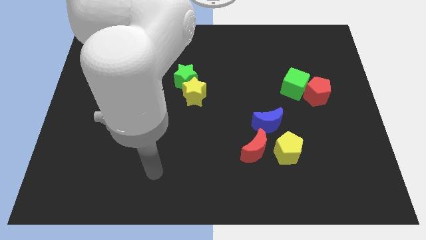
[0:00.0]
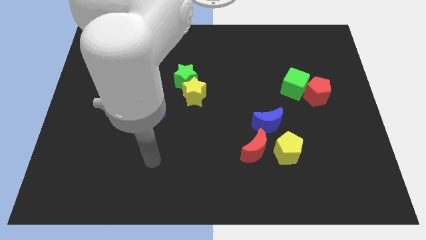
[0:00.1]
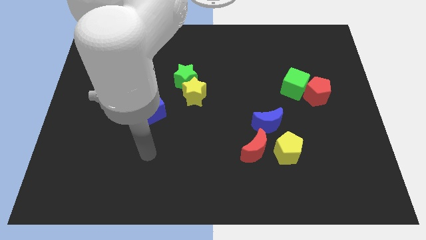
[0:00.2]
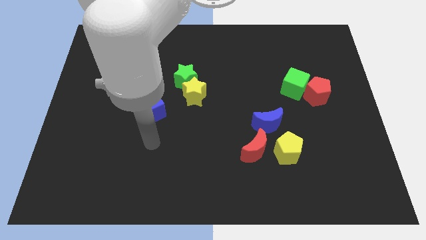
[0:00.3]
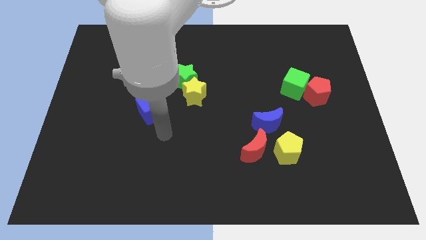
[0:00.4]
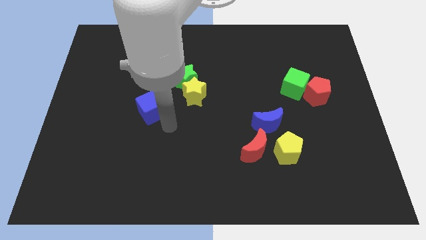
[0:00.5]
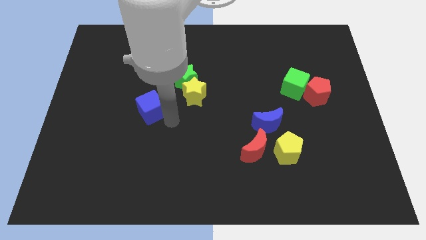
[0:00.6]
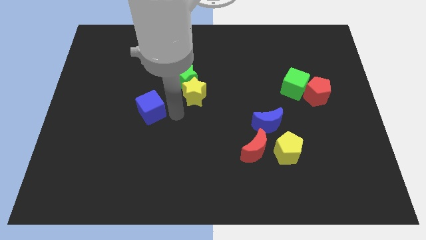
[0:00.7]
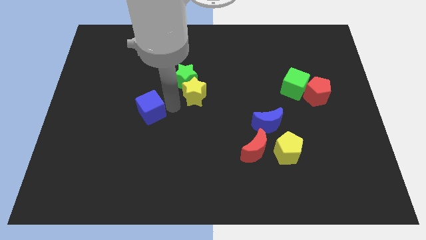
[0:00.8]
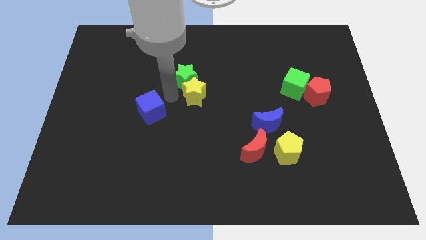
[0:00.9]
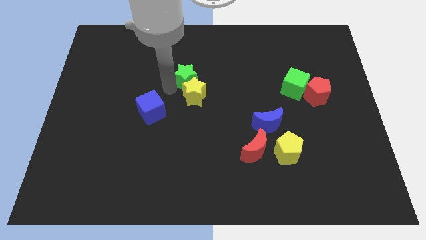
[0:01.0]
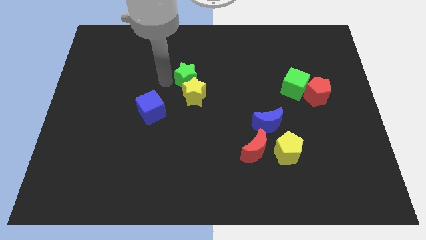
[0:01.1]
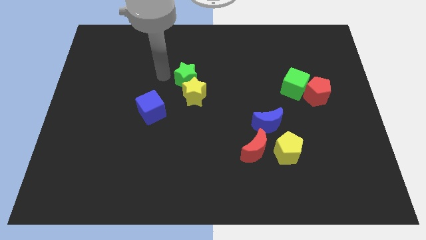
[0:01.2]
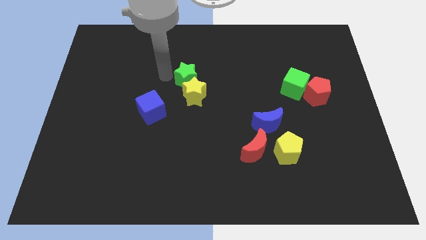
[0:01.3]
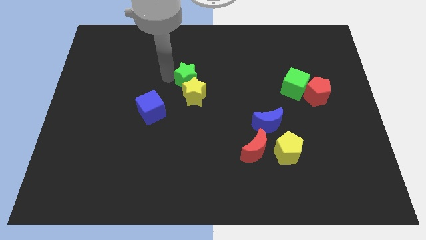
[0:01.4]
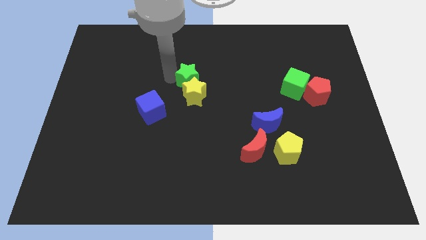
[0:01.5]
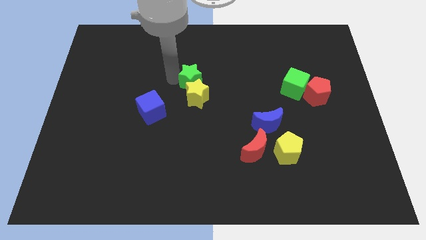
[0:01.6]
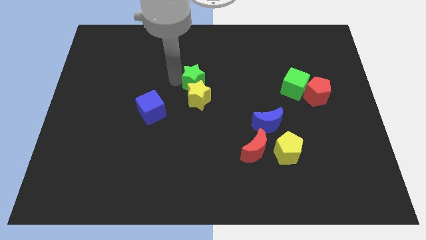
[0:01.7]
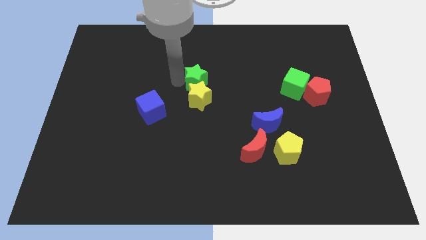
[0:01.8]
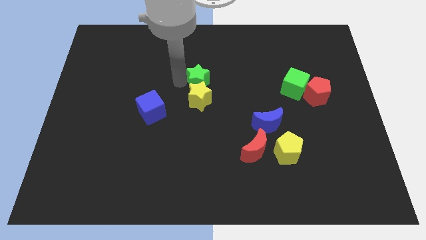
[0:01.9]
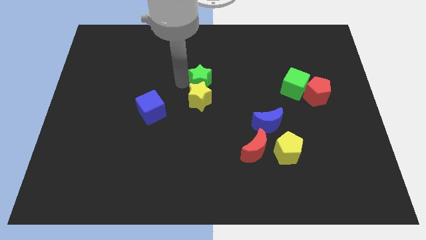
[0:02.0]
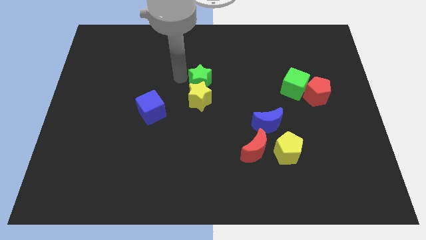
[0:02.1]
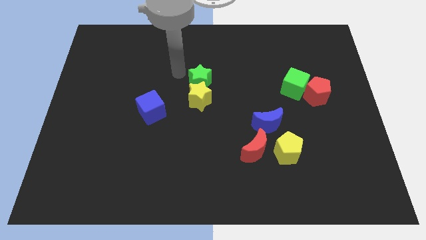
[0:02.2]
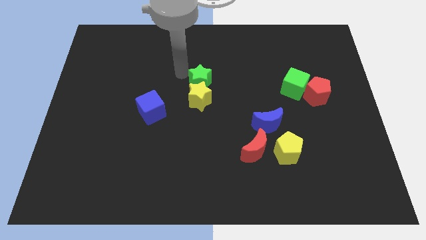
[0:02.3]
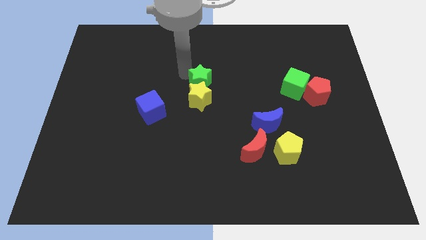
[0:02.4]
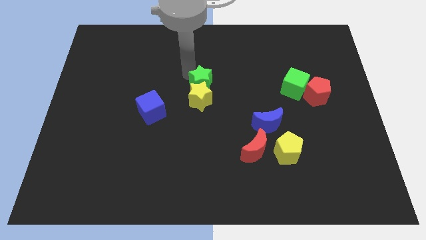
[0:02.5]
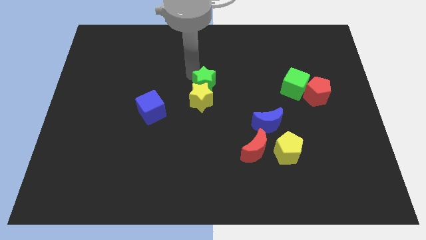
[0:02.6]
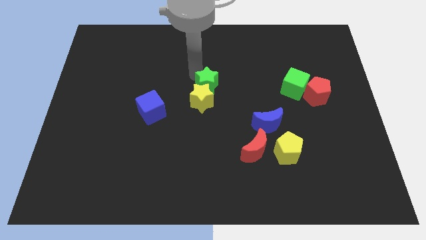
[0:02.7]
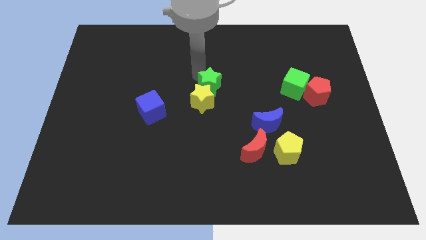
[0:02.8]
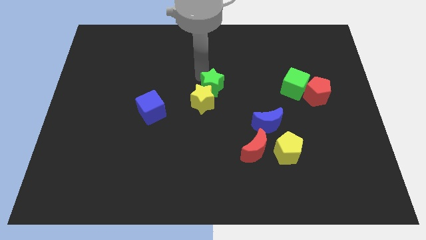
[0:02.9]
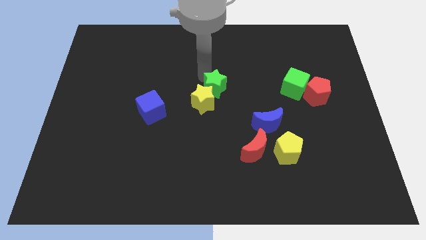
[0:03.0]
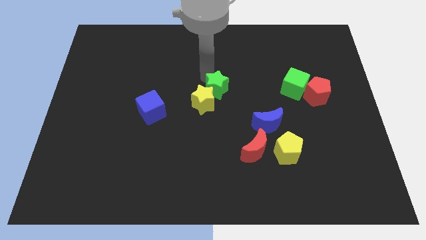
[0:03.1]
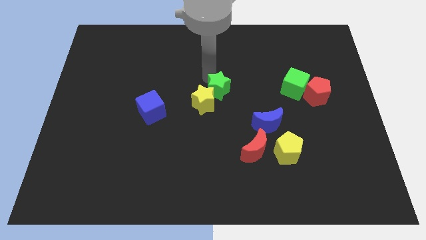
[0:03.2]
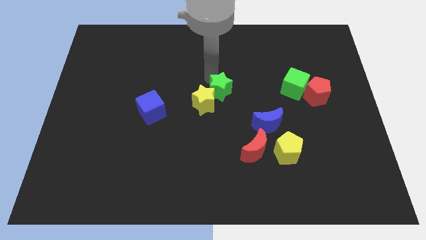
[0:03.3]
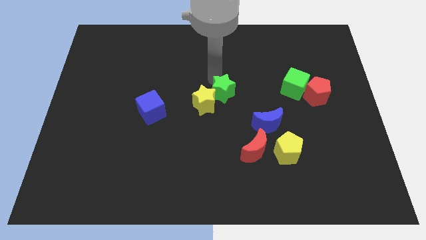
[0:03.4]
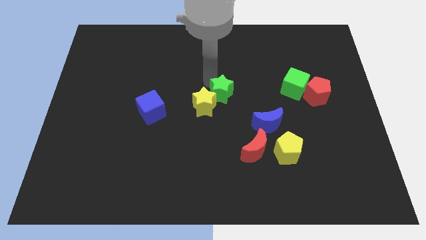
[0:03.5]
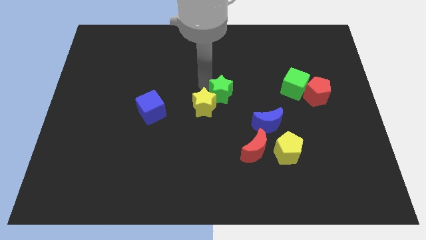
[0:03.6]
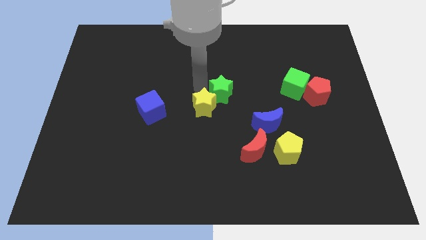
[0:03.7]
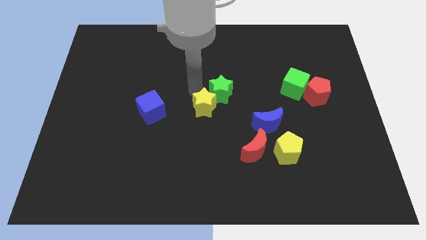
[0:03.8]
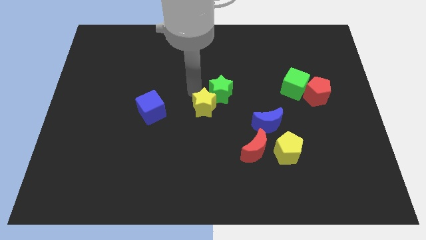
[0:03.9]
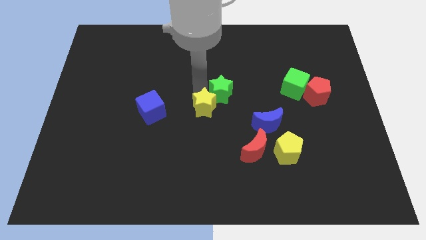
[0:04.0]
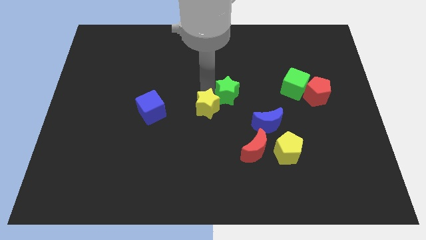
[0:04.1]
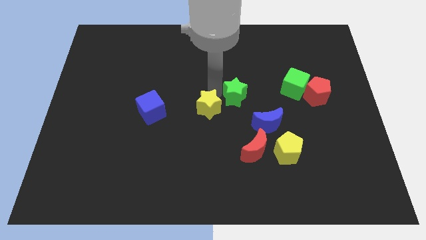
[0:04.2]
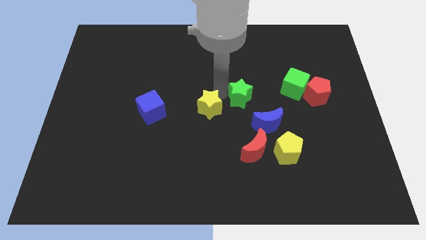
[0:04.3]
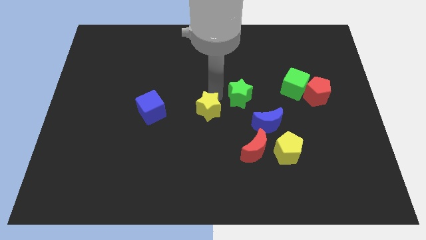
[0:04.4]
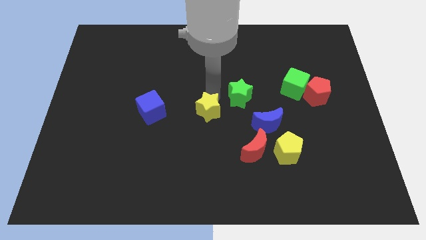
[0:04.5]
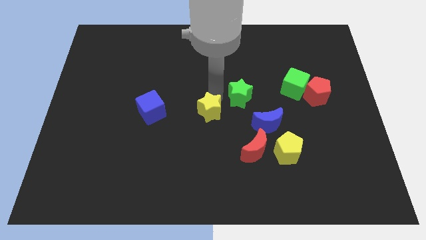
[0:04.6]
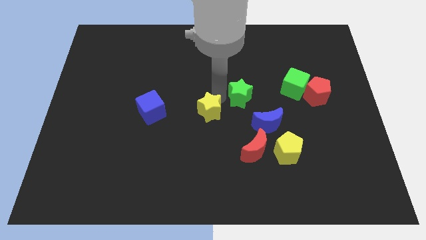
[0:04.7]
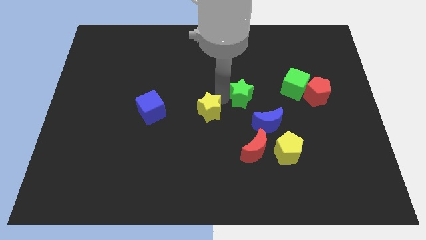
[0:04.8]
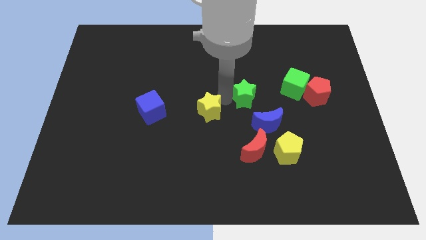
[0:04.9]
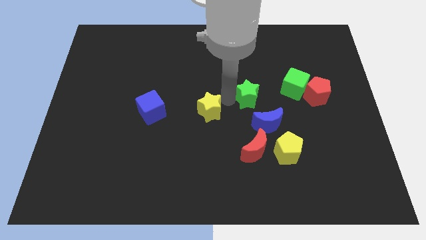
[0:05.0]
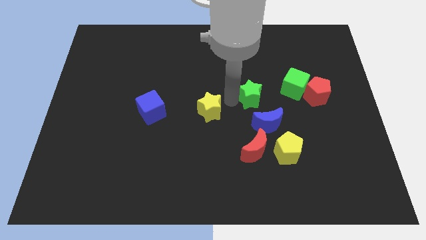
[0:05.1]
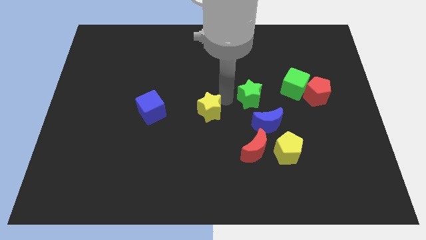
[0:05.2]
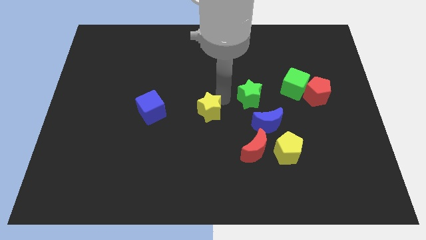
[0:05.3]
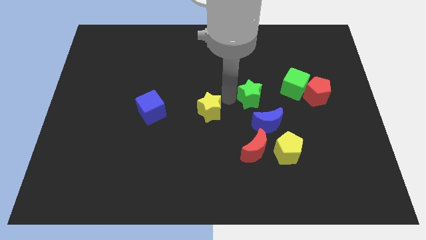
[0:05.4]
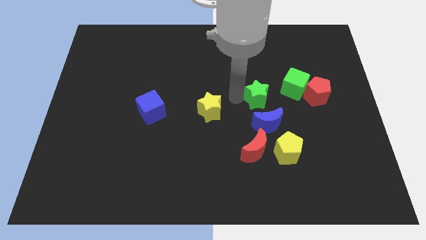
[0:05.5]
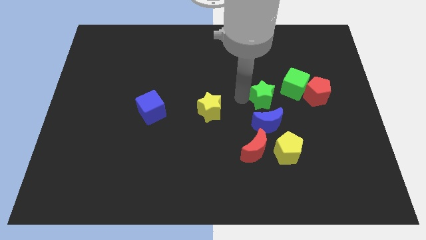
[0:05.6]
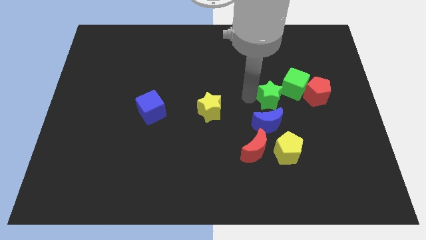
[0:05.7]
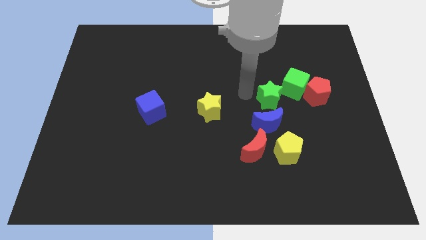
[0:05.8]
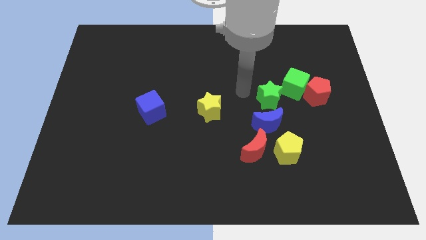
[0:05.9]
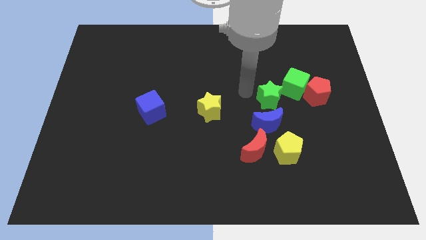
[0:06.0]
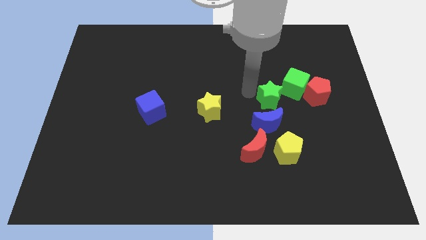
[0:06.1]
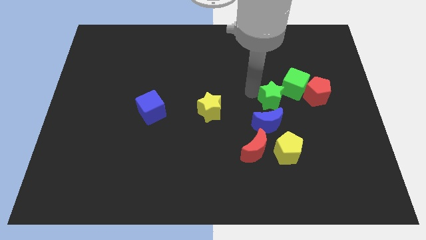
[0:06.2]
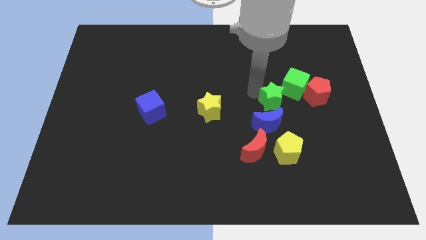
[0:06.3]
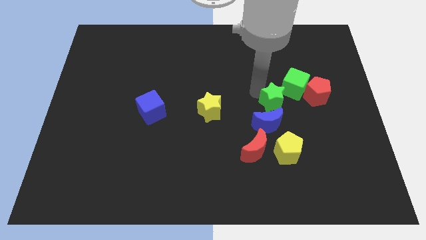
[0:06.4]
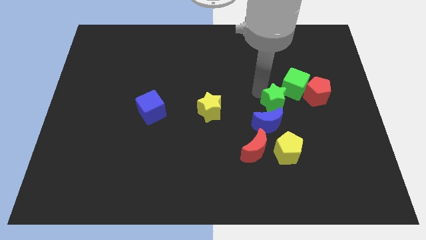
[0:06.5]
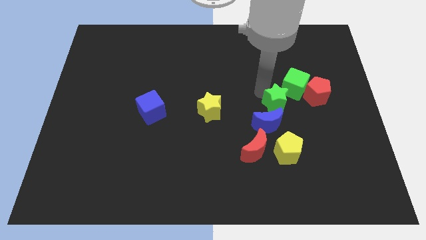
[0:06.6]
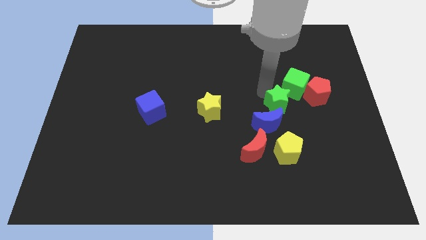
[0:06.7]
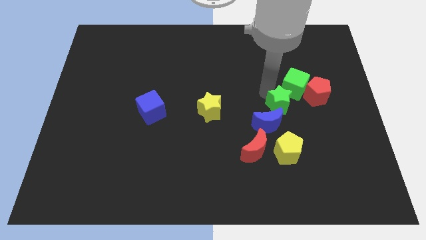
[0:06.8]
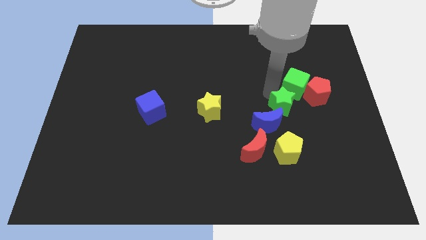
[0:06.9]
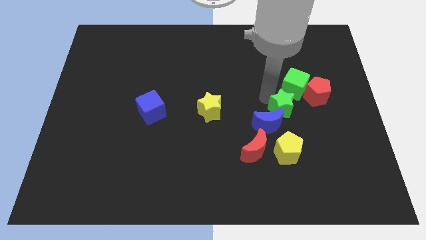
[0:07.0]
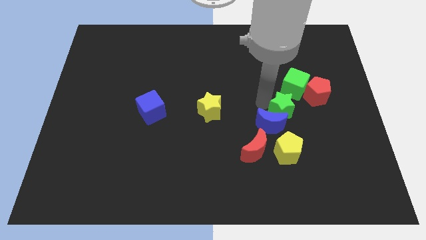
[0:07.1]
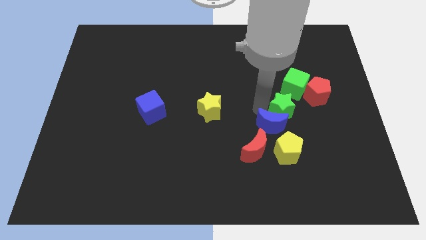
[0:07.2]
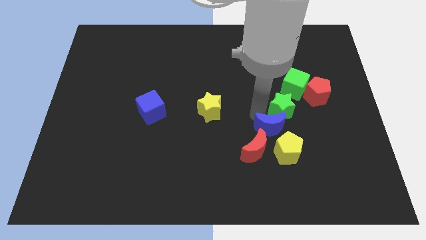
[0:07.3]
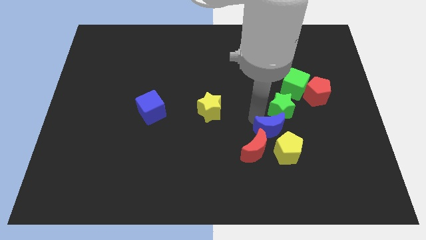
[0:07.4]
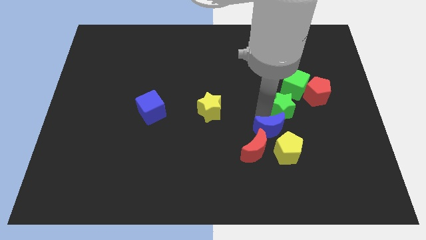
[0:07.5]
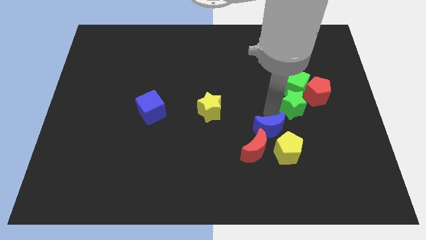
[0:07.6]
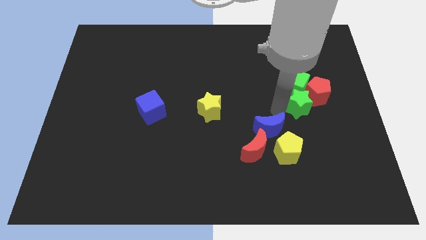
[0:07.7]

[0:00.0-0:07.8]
push the green star towards the red pentagon
